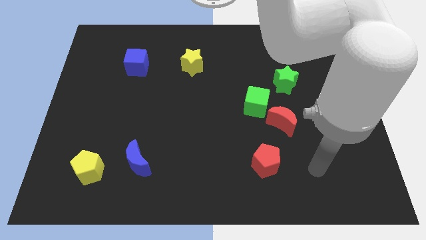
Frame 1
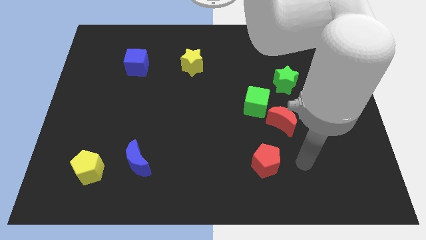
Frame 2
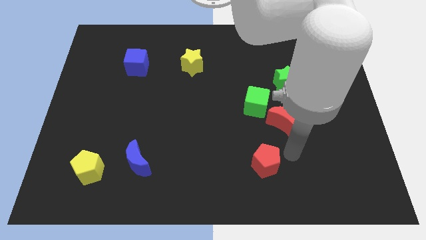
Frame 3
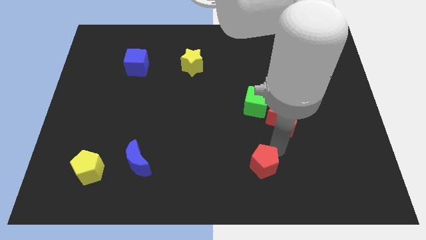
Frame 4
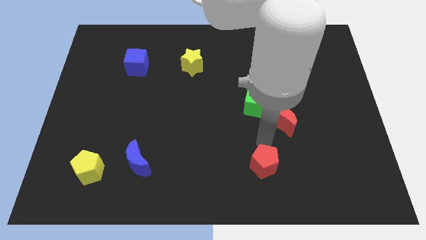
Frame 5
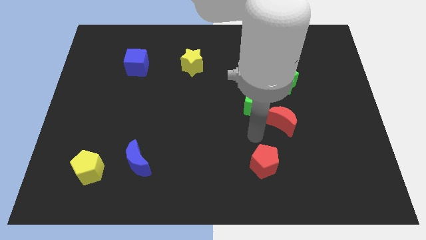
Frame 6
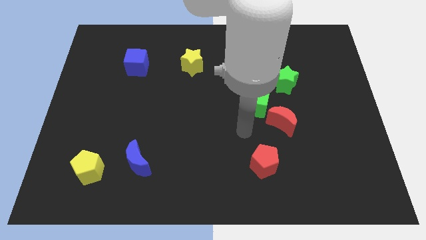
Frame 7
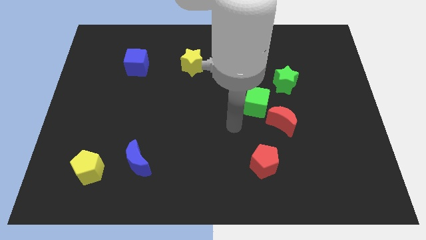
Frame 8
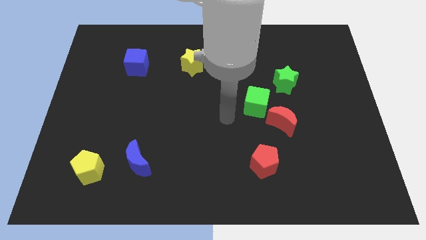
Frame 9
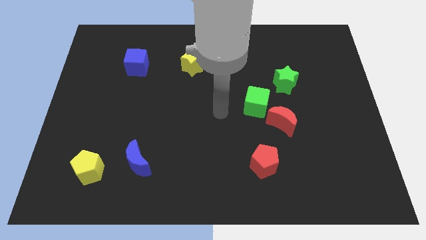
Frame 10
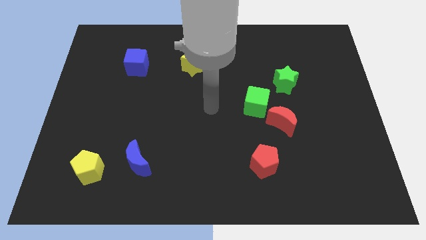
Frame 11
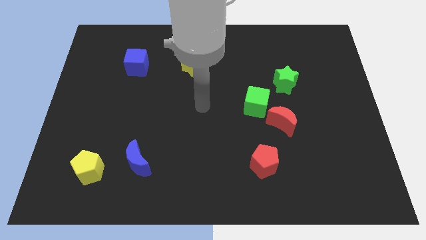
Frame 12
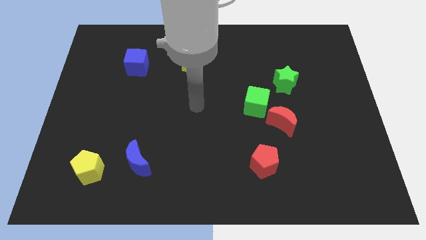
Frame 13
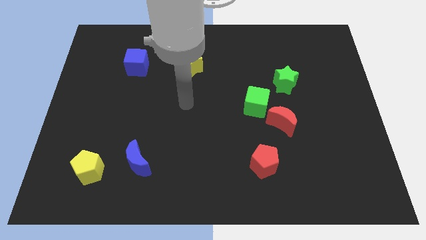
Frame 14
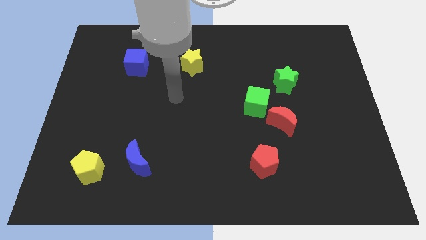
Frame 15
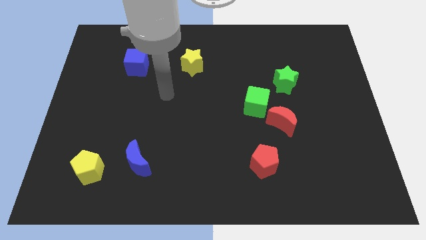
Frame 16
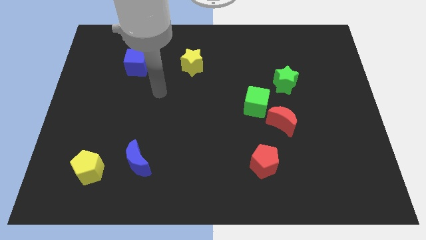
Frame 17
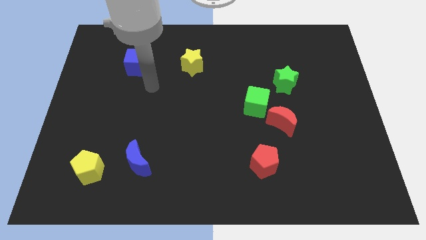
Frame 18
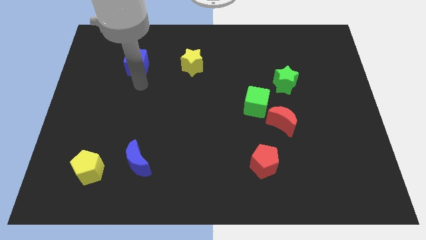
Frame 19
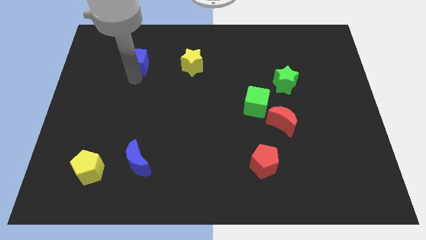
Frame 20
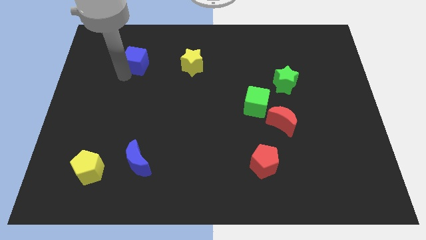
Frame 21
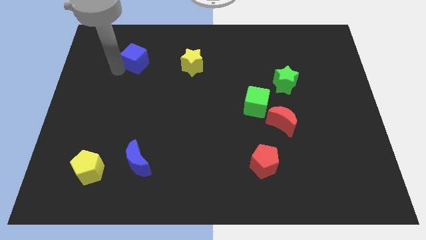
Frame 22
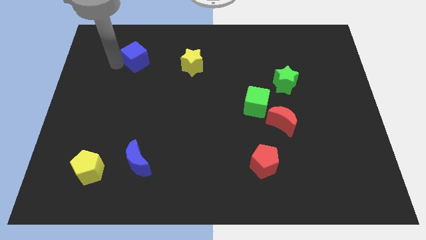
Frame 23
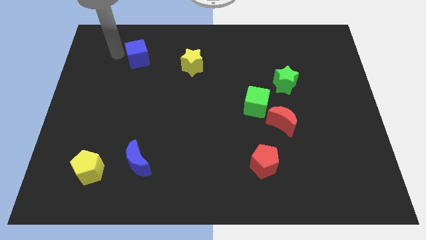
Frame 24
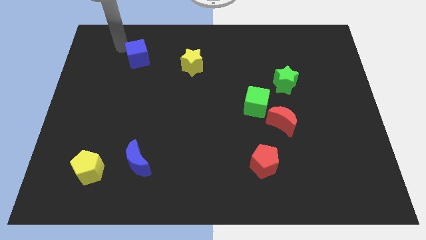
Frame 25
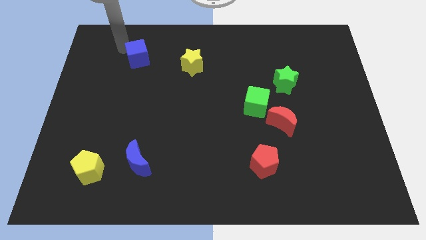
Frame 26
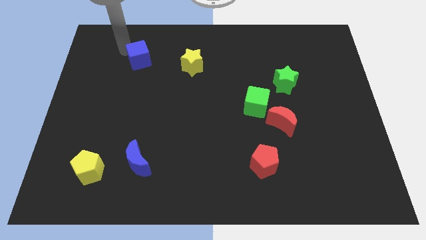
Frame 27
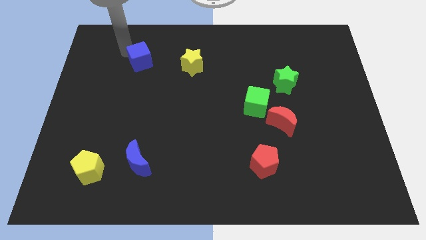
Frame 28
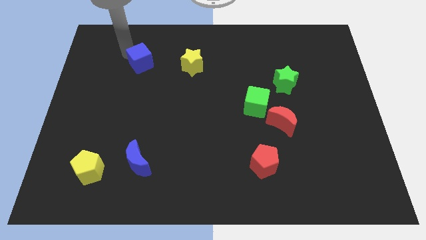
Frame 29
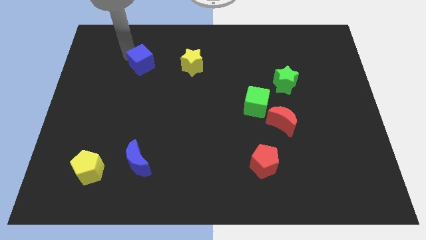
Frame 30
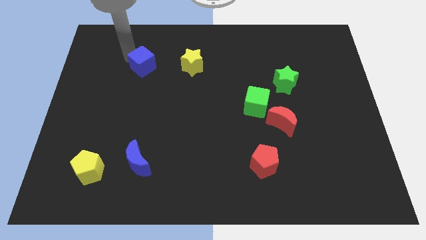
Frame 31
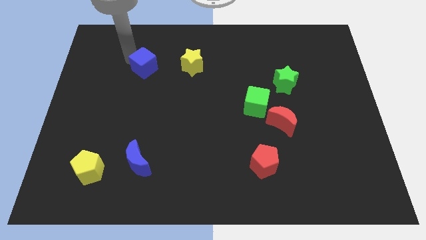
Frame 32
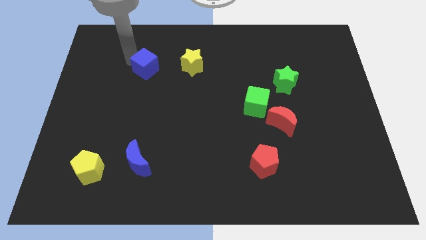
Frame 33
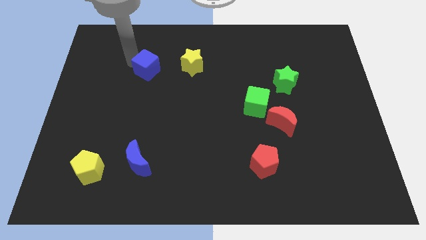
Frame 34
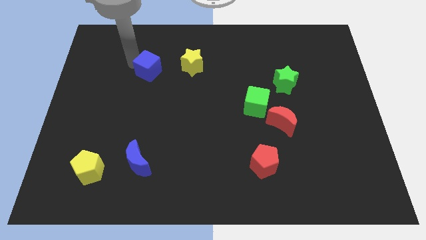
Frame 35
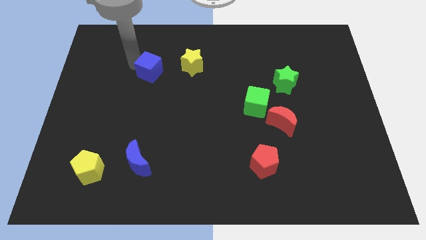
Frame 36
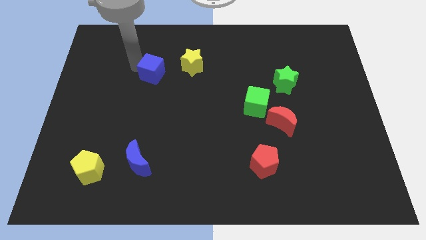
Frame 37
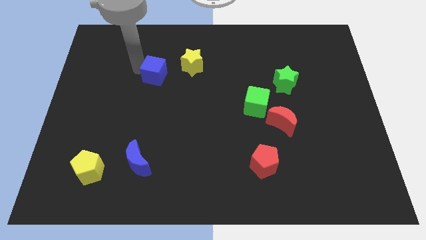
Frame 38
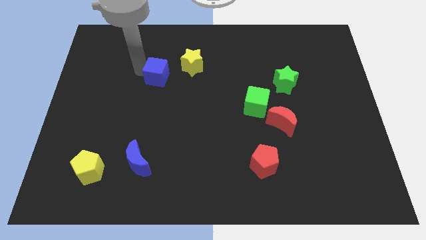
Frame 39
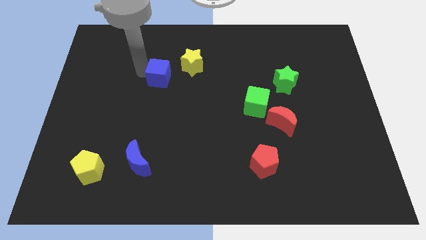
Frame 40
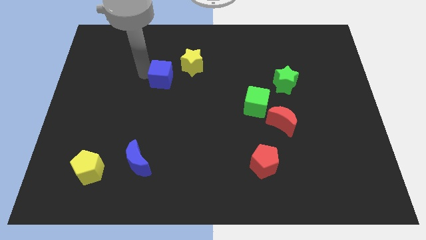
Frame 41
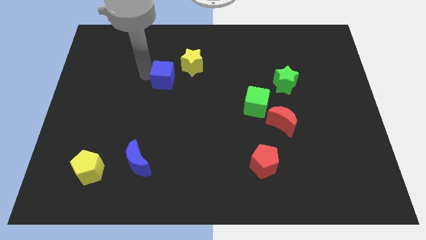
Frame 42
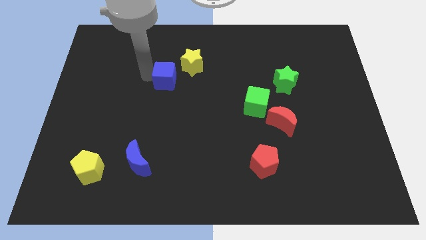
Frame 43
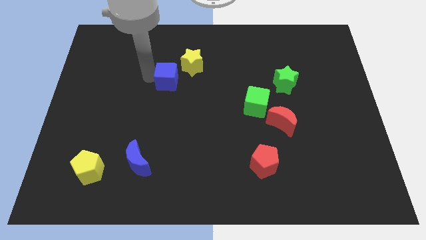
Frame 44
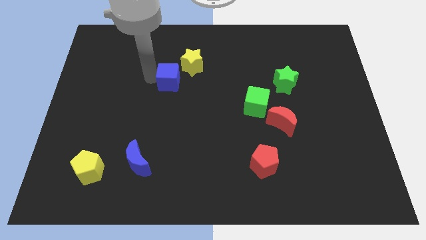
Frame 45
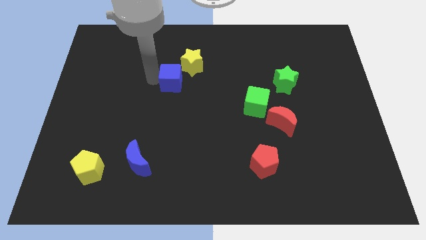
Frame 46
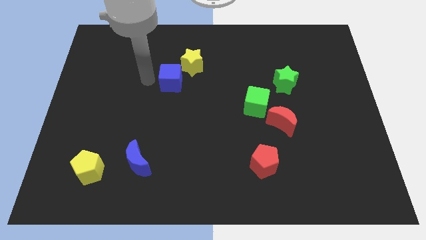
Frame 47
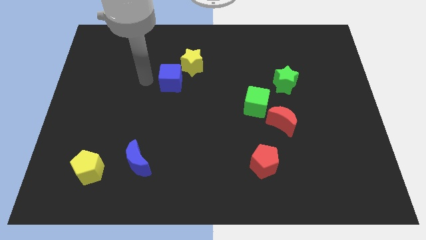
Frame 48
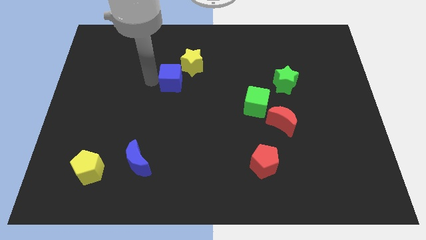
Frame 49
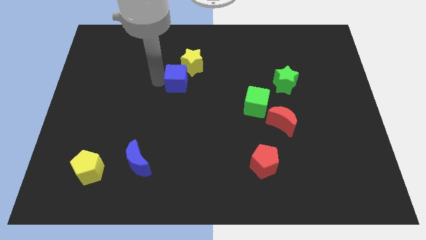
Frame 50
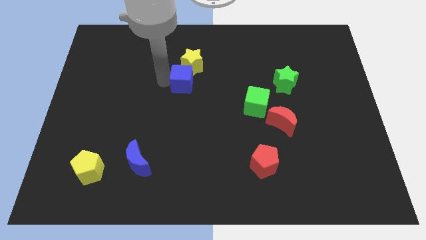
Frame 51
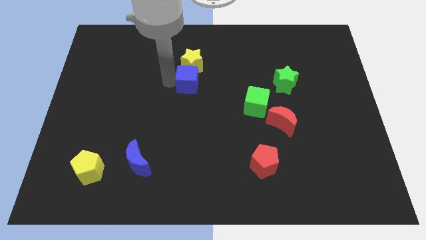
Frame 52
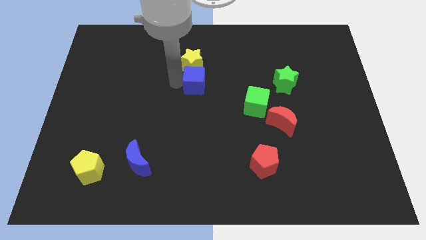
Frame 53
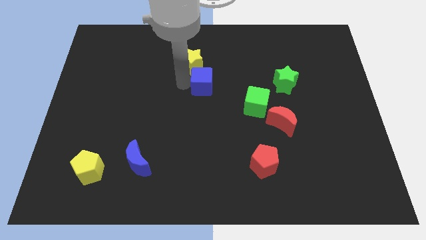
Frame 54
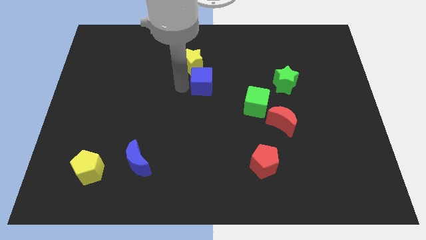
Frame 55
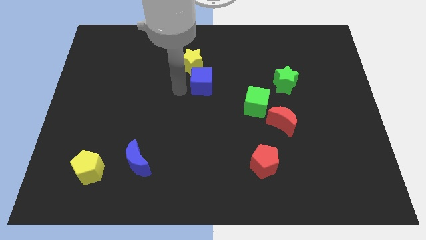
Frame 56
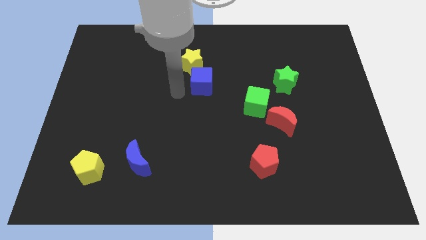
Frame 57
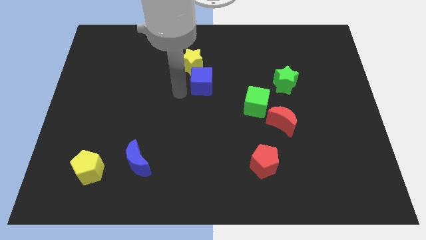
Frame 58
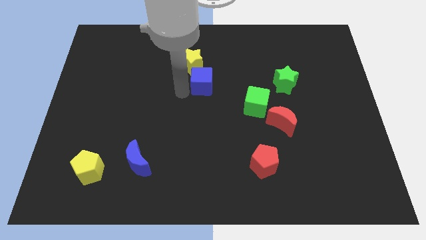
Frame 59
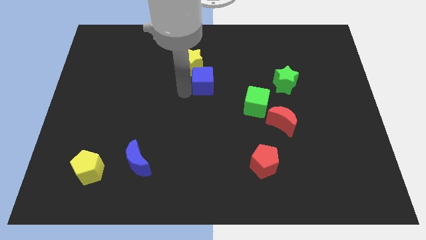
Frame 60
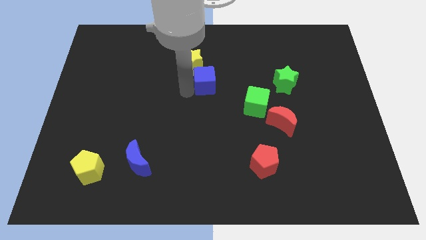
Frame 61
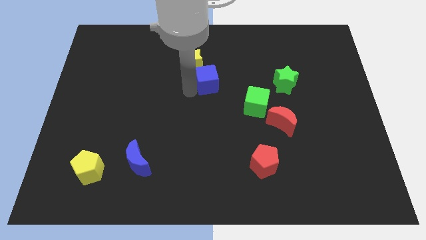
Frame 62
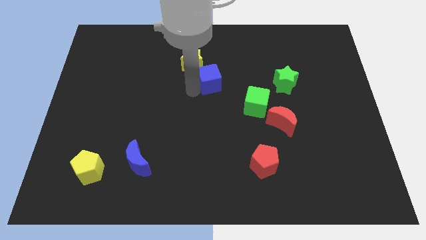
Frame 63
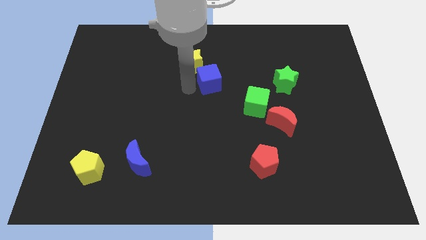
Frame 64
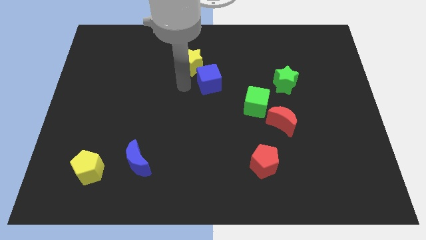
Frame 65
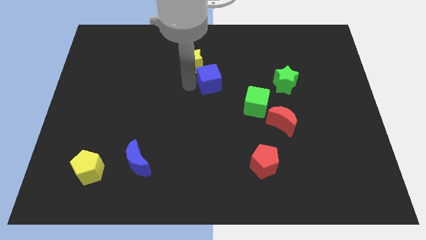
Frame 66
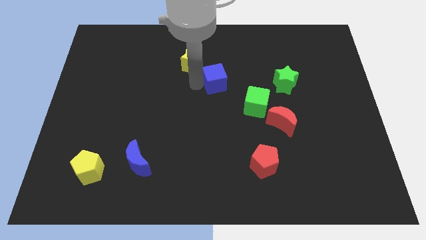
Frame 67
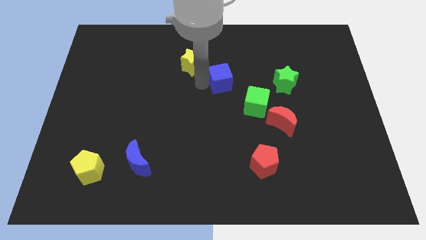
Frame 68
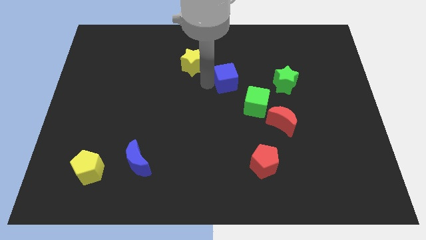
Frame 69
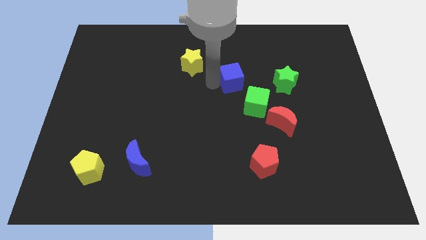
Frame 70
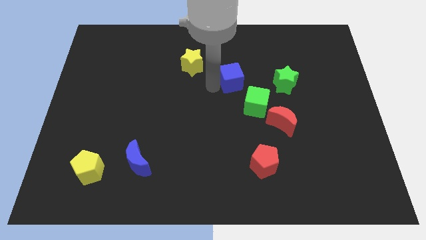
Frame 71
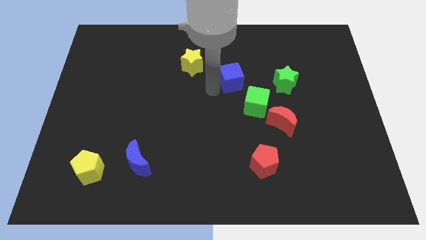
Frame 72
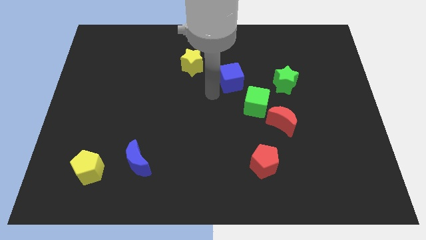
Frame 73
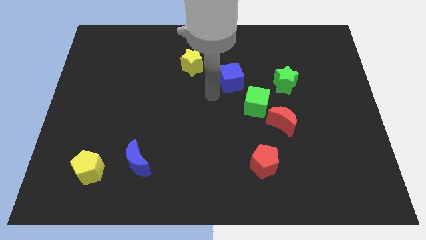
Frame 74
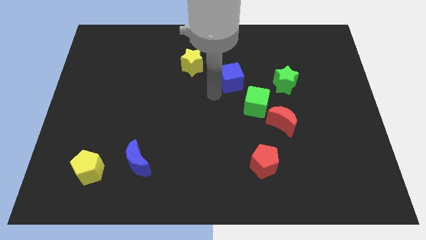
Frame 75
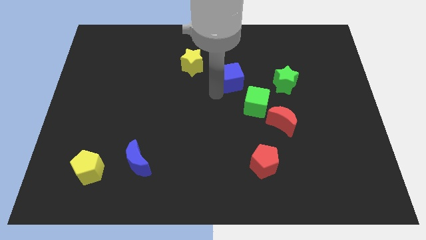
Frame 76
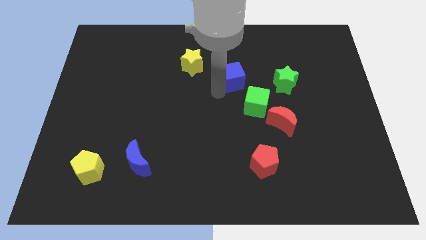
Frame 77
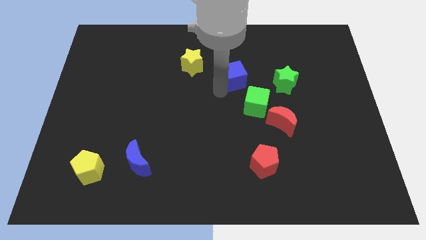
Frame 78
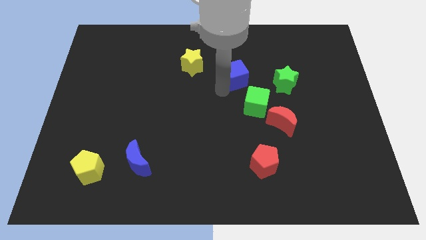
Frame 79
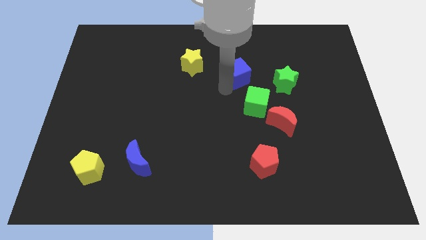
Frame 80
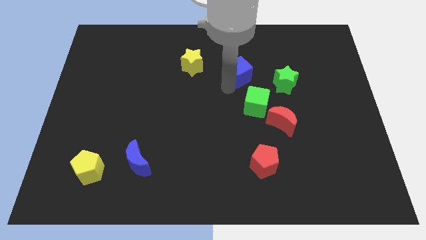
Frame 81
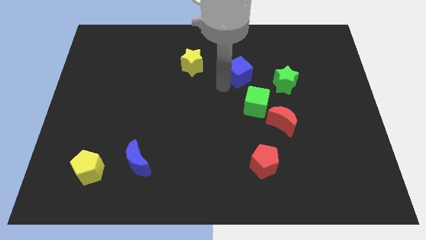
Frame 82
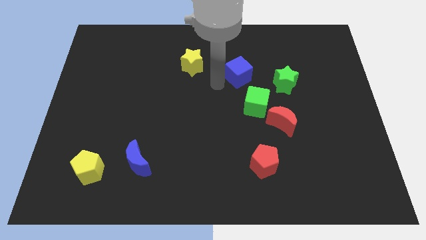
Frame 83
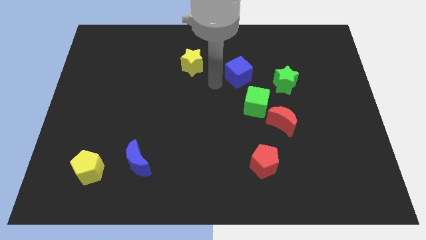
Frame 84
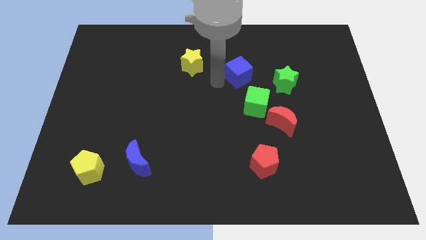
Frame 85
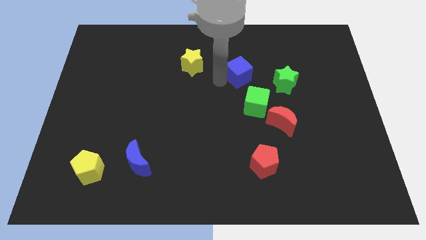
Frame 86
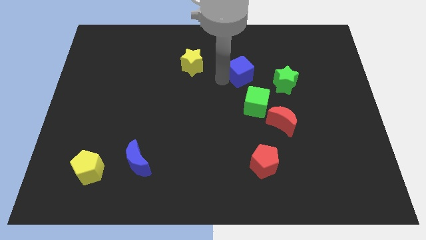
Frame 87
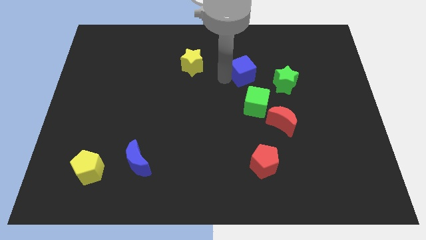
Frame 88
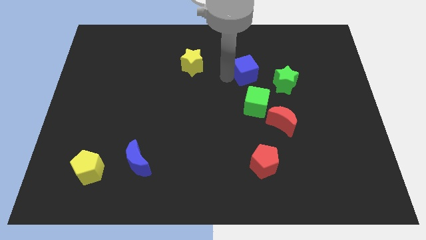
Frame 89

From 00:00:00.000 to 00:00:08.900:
slide the blue cube to the top left side of the green star
